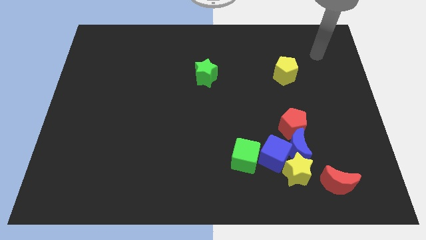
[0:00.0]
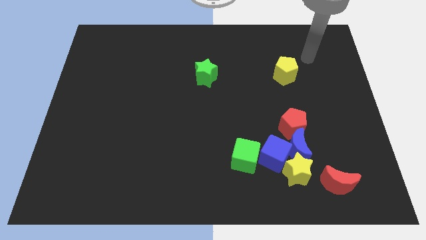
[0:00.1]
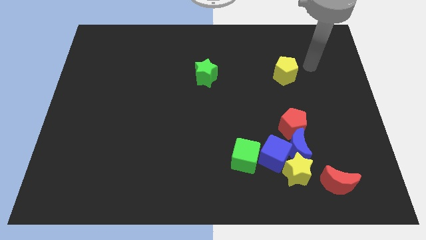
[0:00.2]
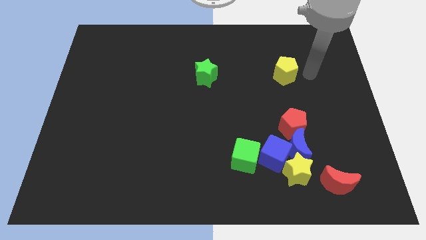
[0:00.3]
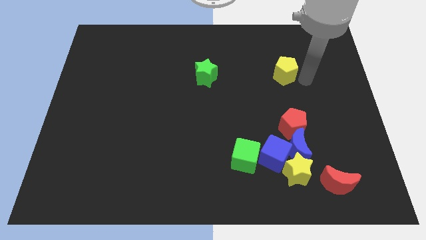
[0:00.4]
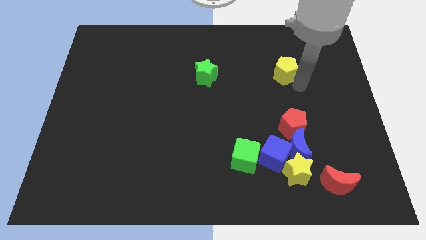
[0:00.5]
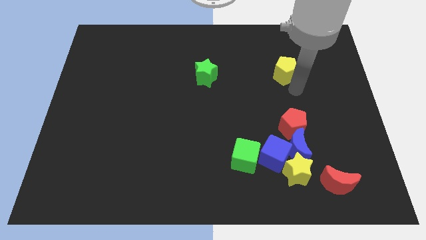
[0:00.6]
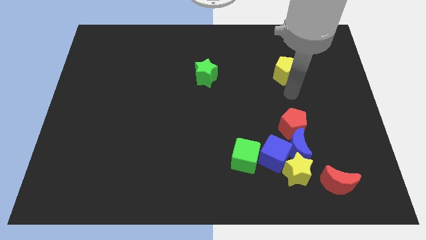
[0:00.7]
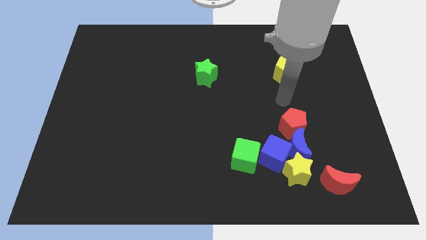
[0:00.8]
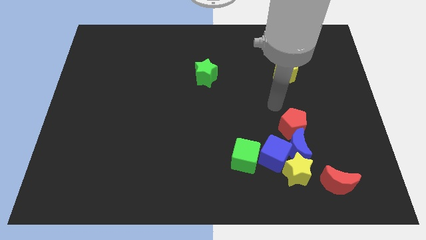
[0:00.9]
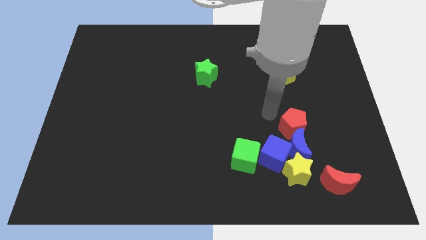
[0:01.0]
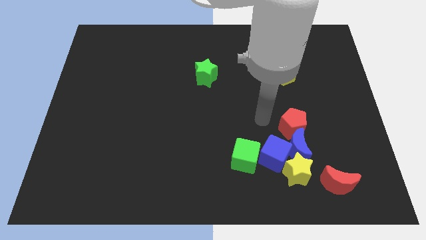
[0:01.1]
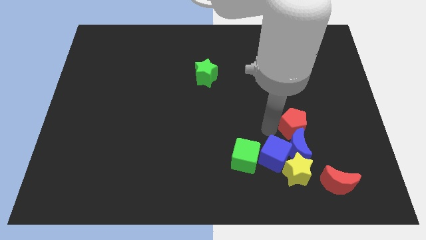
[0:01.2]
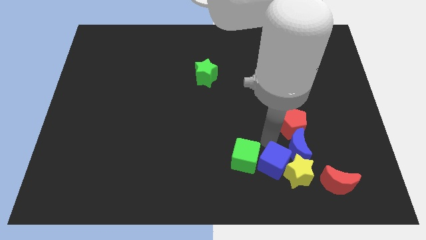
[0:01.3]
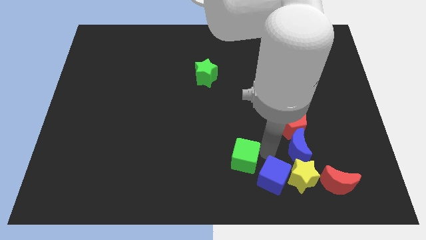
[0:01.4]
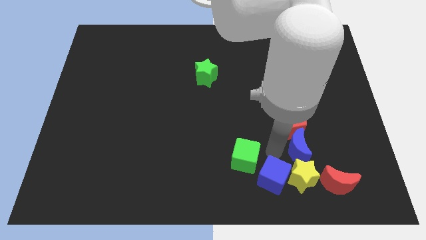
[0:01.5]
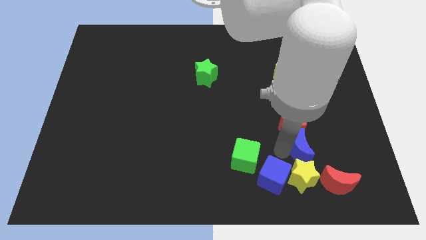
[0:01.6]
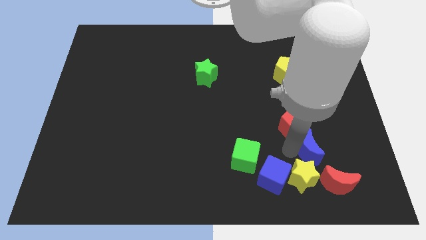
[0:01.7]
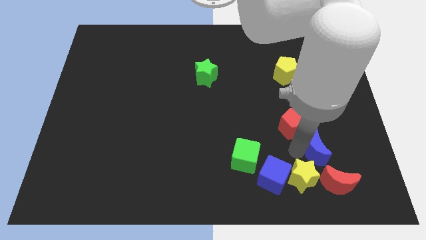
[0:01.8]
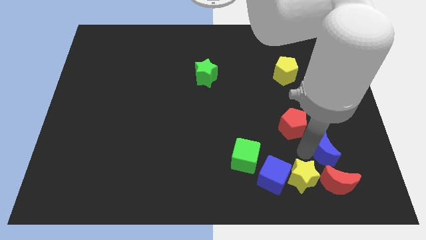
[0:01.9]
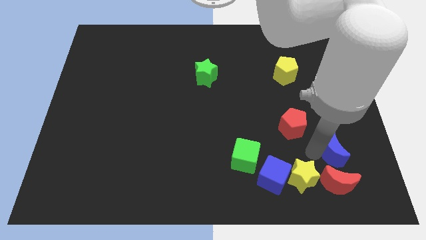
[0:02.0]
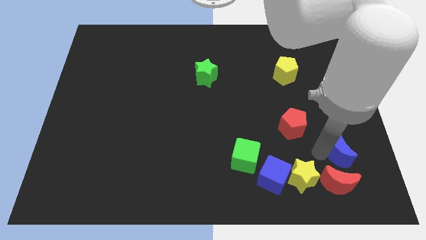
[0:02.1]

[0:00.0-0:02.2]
separate the blue moon from the blue cube, yellow star, and red pentagon

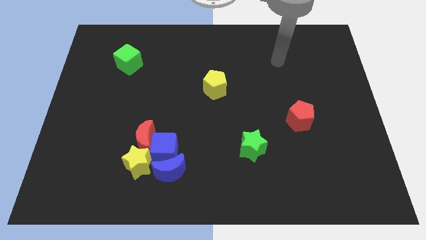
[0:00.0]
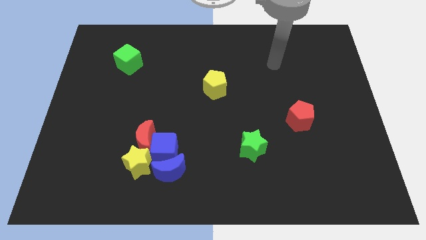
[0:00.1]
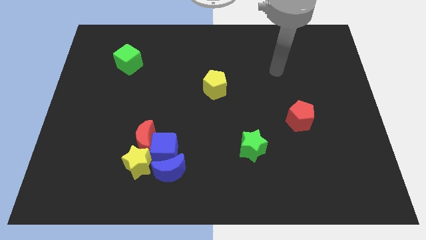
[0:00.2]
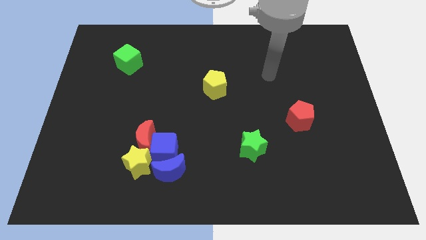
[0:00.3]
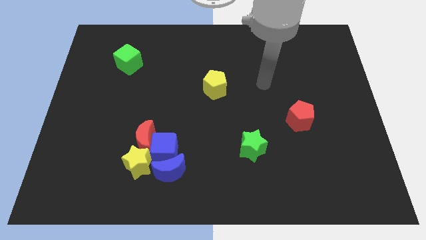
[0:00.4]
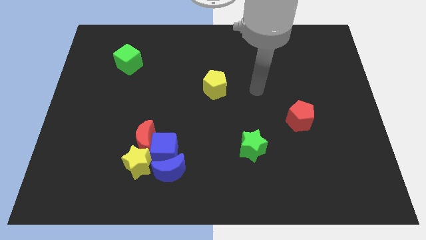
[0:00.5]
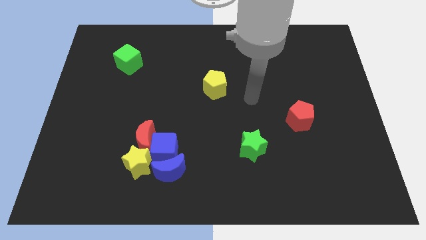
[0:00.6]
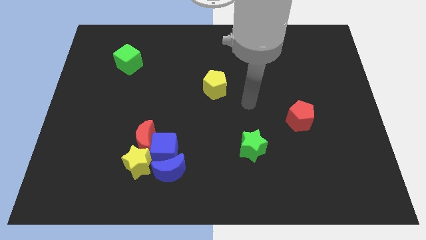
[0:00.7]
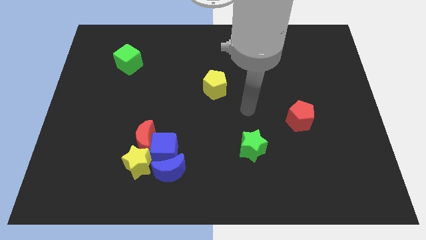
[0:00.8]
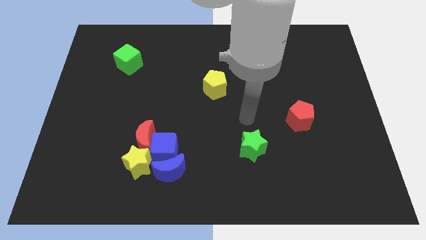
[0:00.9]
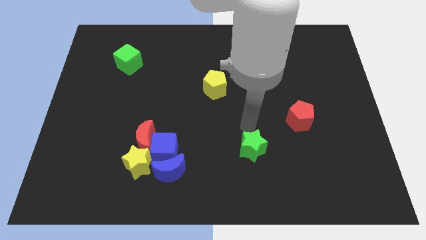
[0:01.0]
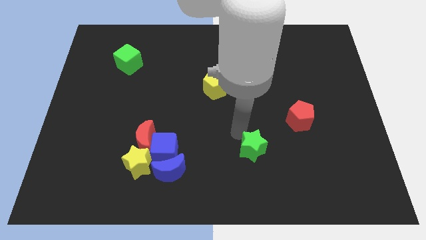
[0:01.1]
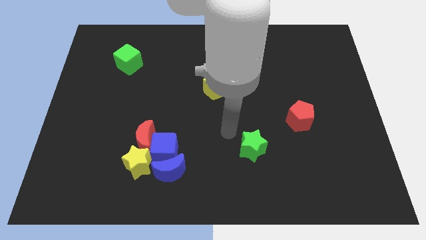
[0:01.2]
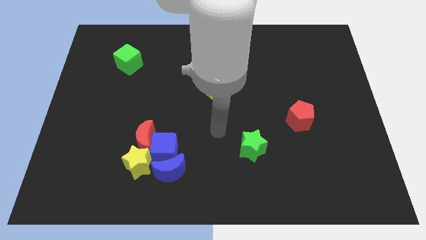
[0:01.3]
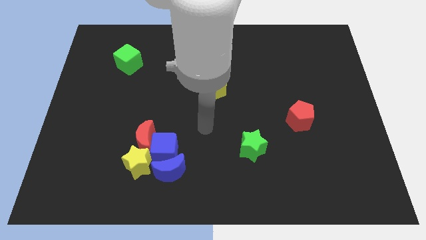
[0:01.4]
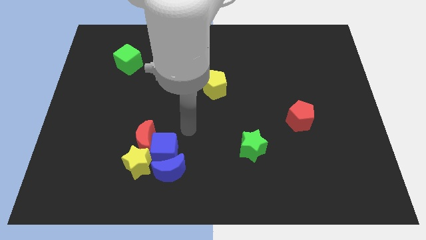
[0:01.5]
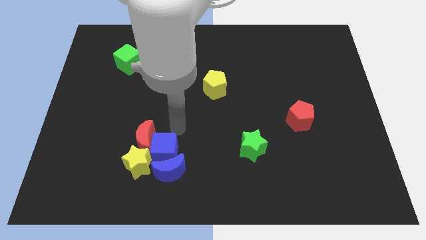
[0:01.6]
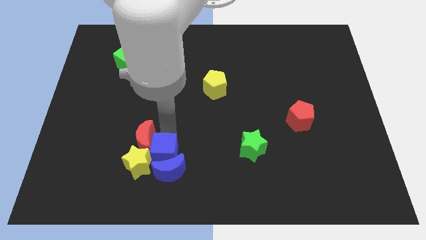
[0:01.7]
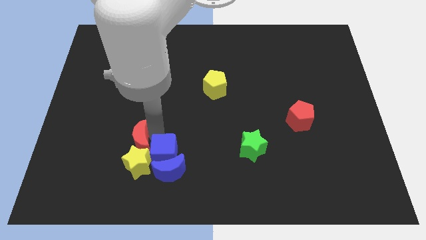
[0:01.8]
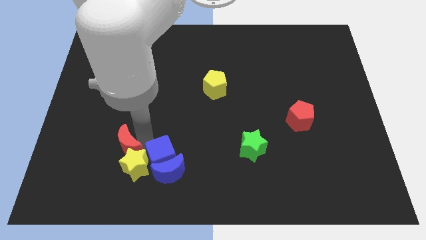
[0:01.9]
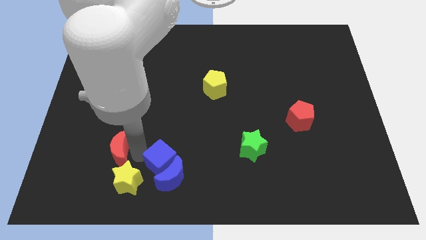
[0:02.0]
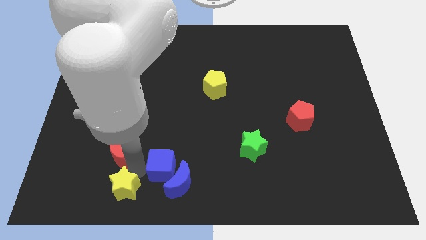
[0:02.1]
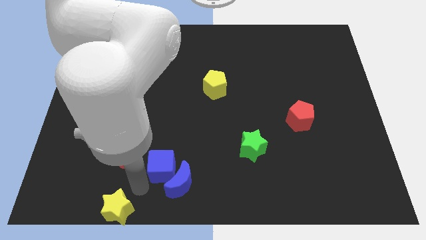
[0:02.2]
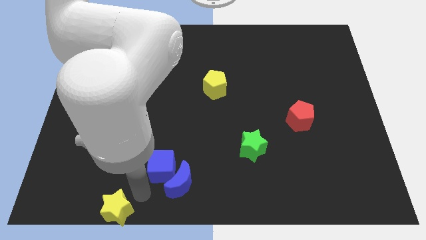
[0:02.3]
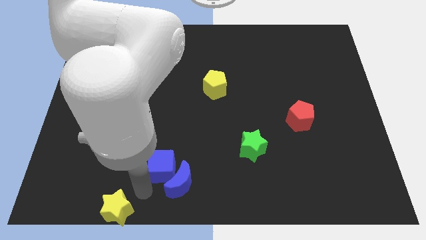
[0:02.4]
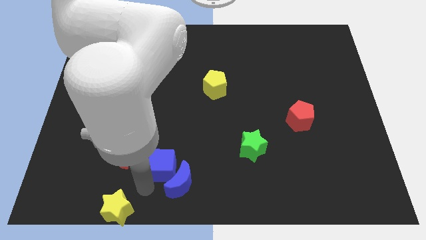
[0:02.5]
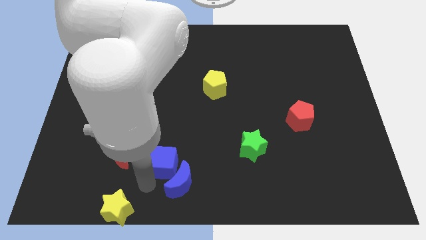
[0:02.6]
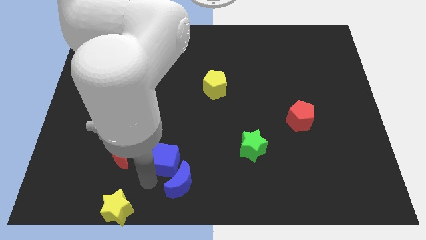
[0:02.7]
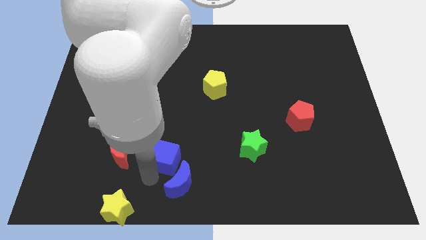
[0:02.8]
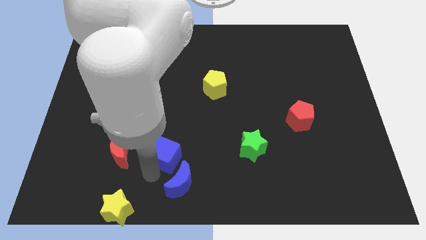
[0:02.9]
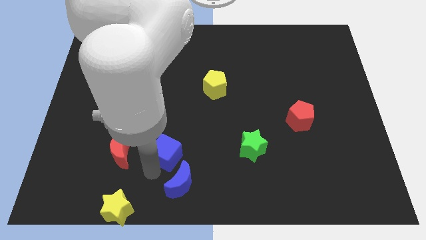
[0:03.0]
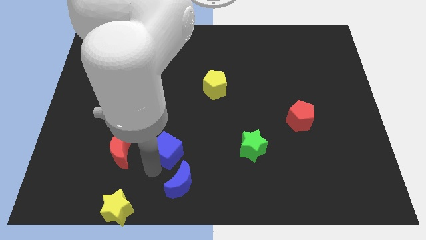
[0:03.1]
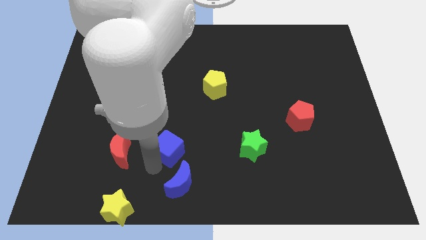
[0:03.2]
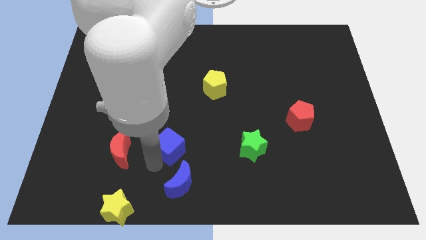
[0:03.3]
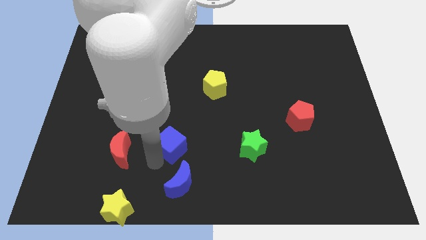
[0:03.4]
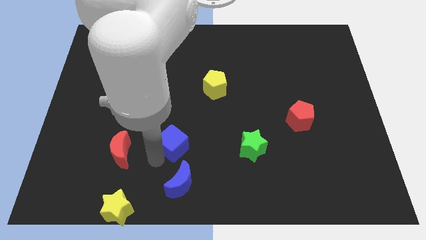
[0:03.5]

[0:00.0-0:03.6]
pull the blue cube apart from the group of blocks

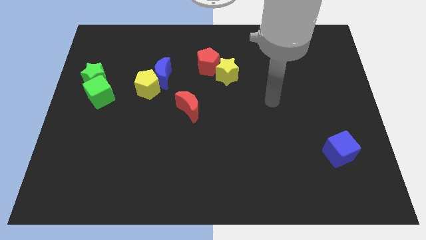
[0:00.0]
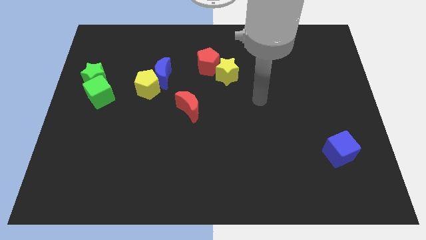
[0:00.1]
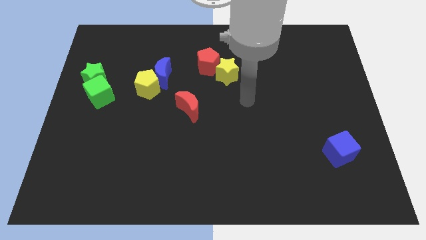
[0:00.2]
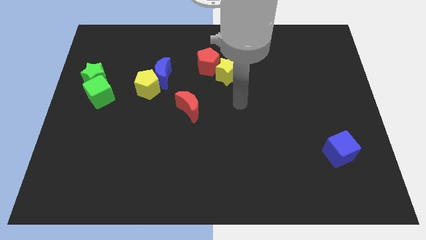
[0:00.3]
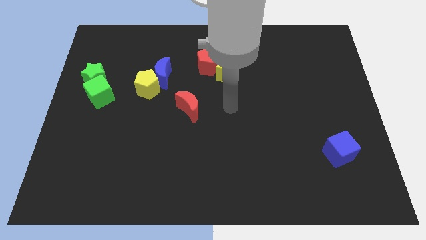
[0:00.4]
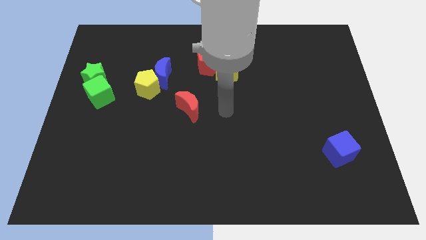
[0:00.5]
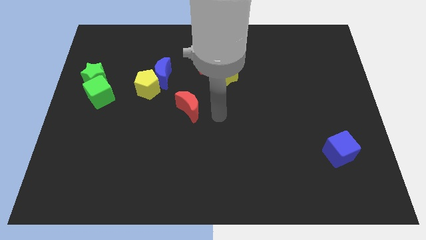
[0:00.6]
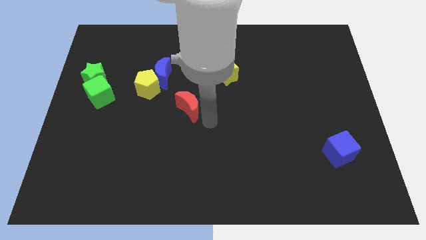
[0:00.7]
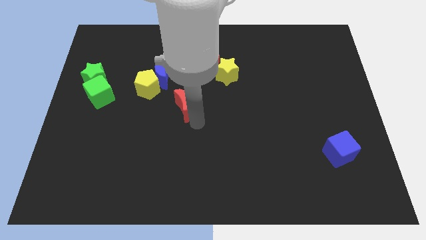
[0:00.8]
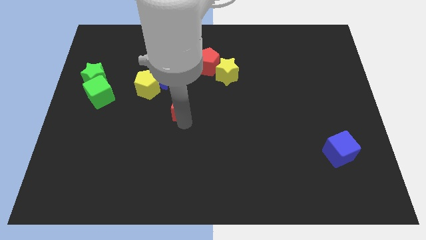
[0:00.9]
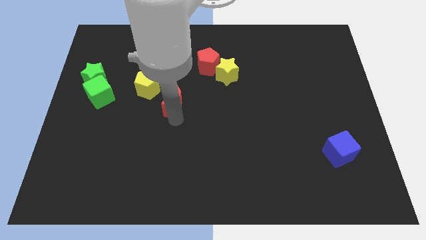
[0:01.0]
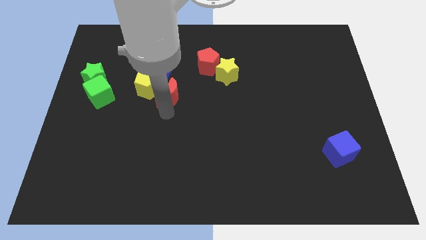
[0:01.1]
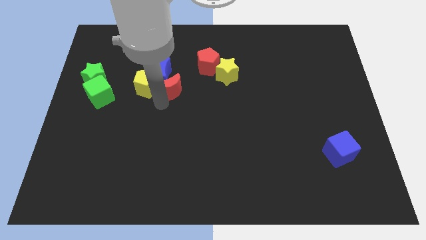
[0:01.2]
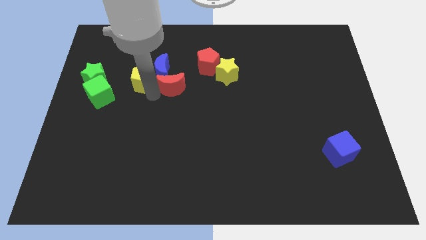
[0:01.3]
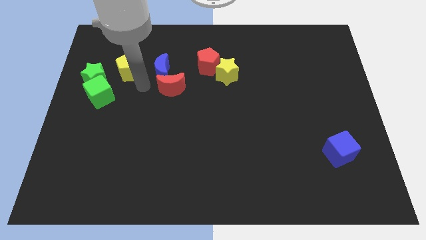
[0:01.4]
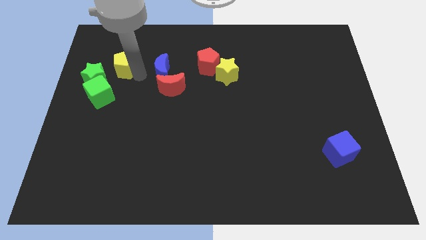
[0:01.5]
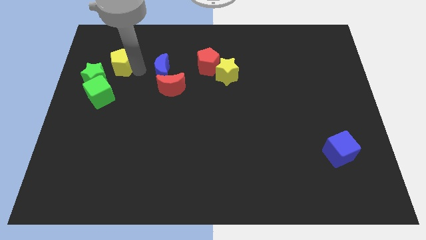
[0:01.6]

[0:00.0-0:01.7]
pull the blue moon apart from the yellow pentagon

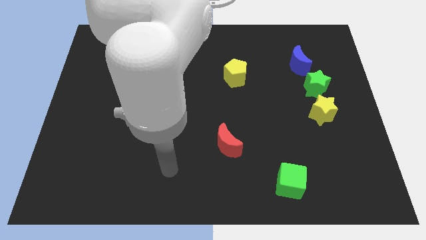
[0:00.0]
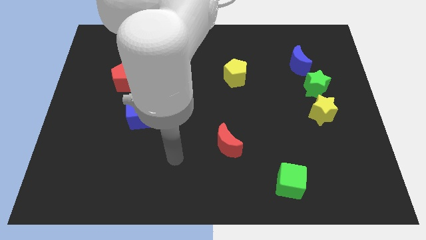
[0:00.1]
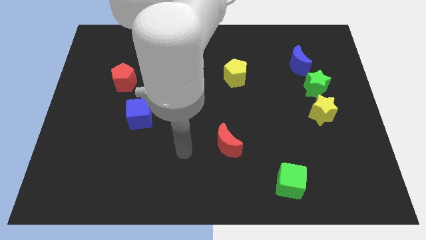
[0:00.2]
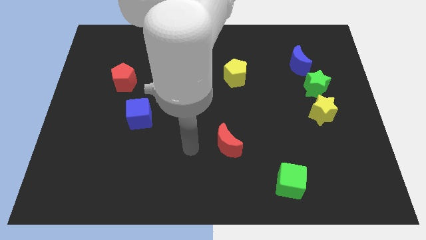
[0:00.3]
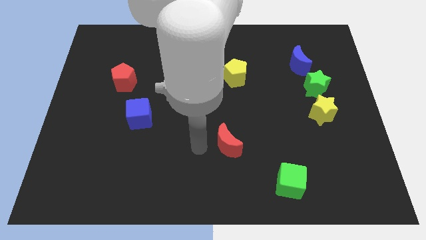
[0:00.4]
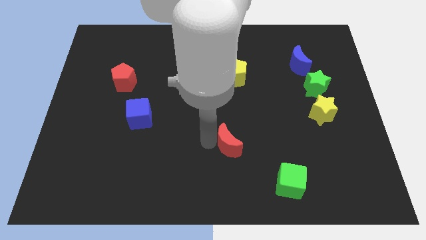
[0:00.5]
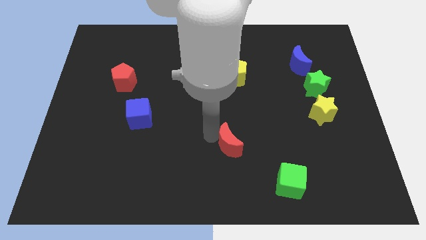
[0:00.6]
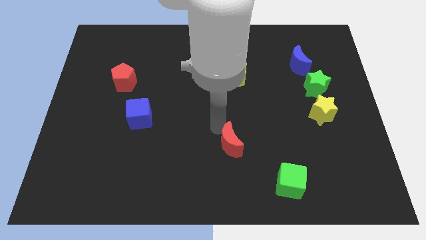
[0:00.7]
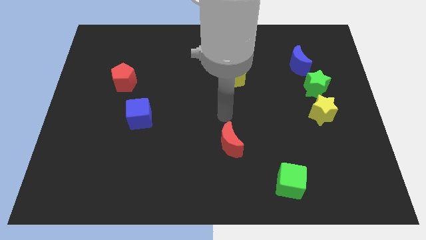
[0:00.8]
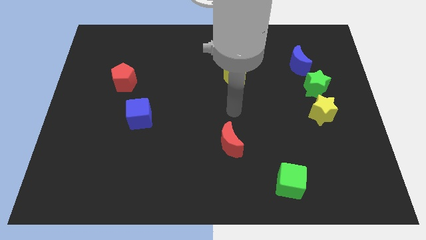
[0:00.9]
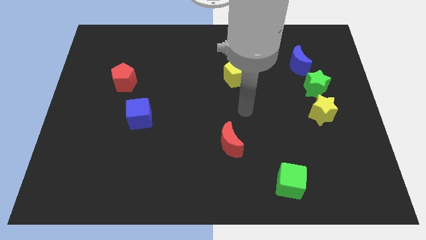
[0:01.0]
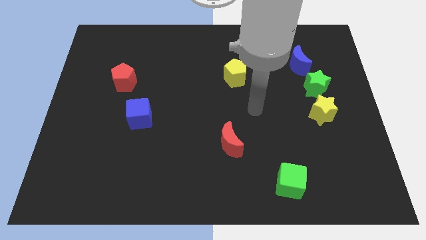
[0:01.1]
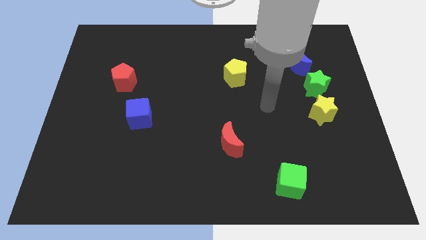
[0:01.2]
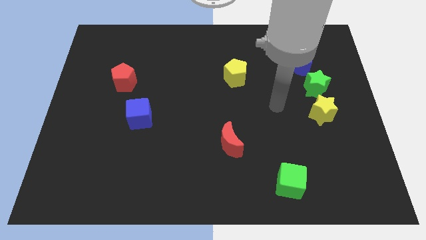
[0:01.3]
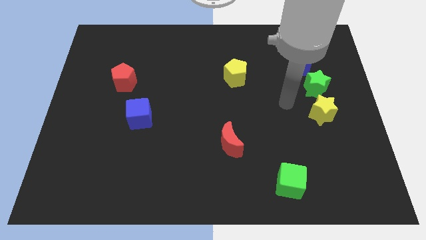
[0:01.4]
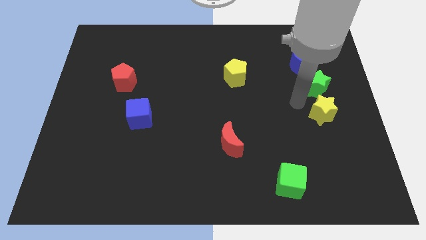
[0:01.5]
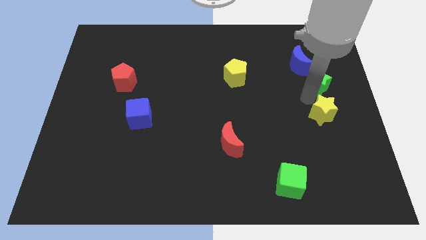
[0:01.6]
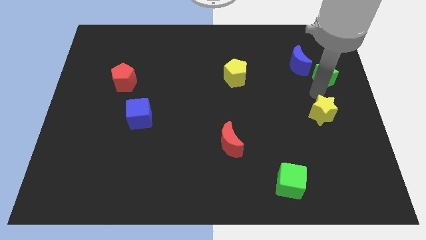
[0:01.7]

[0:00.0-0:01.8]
pull the yellow star apart from the green star
